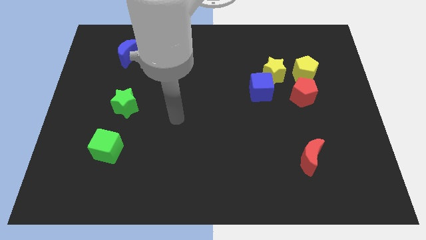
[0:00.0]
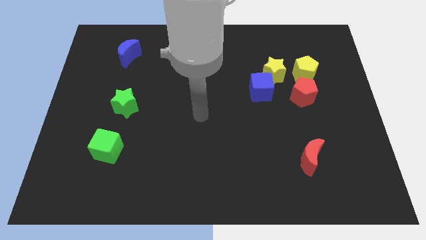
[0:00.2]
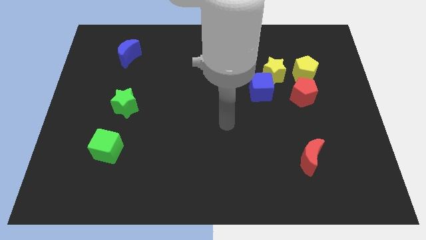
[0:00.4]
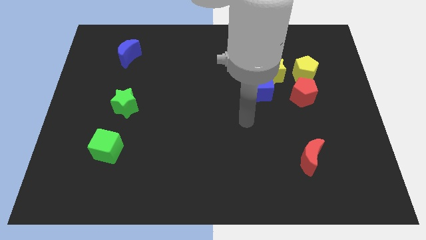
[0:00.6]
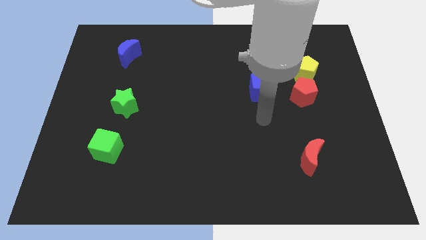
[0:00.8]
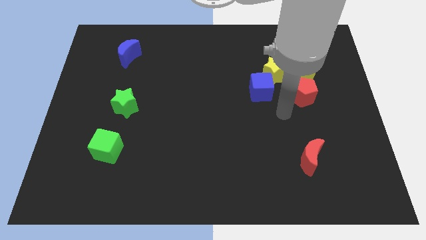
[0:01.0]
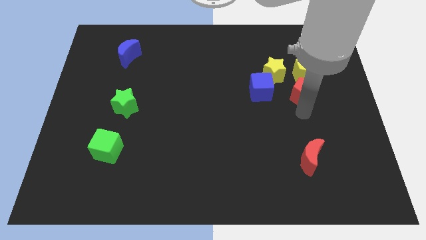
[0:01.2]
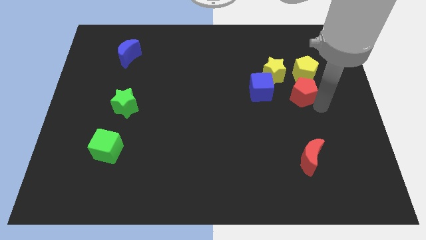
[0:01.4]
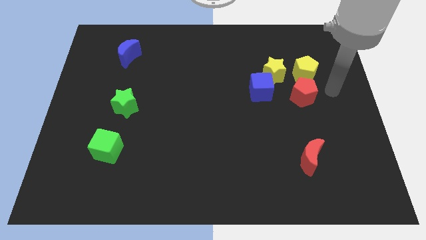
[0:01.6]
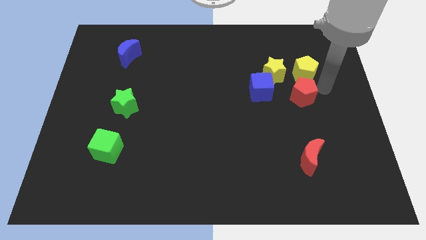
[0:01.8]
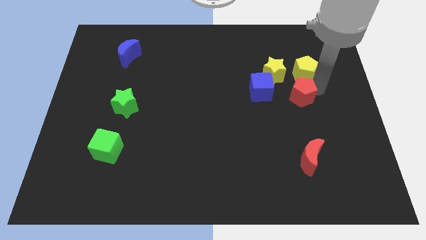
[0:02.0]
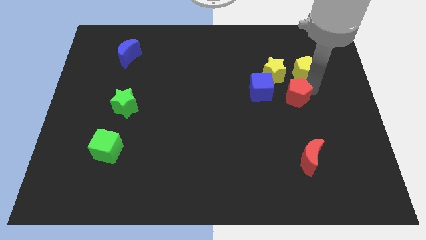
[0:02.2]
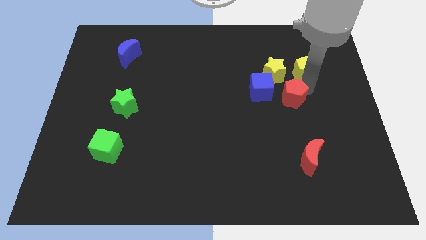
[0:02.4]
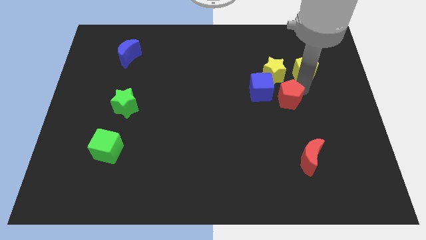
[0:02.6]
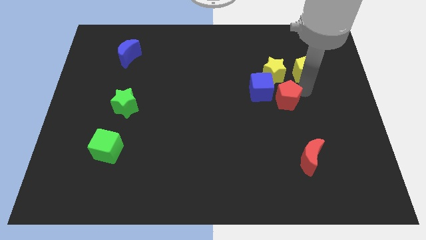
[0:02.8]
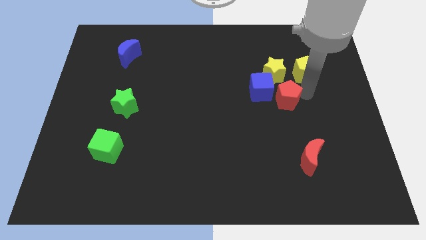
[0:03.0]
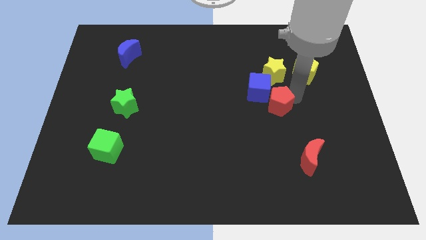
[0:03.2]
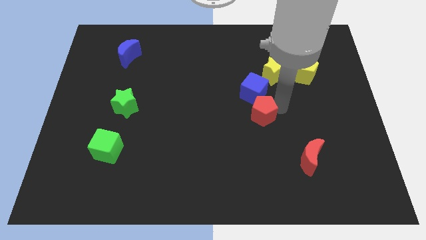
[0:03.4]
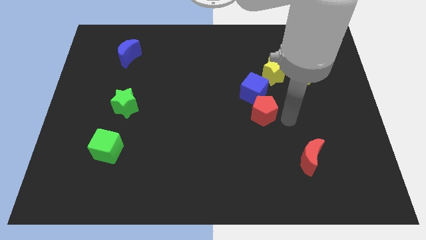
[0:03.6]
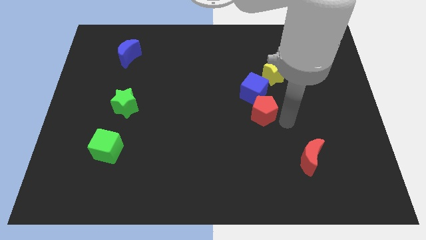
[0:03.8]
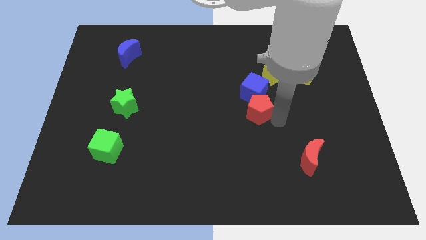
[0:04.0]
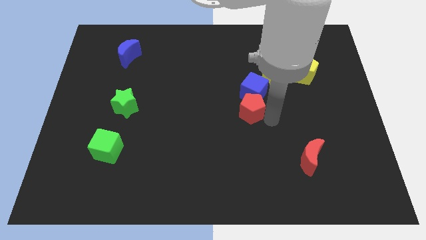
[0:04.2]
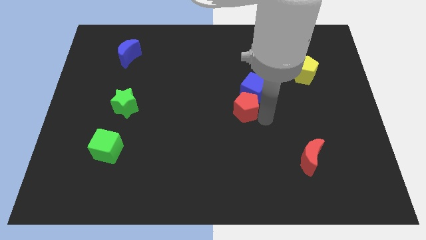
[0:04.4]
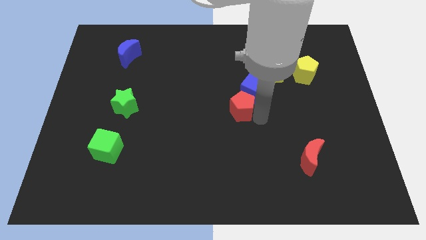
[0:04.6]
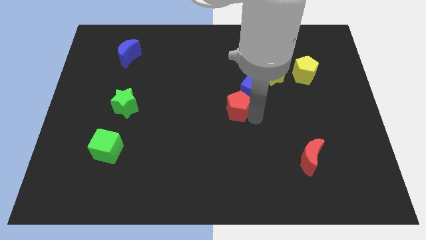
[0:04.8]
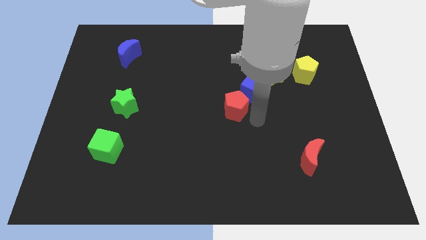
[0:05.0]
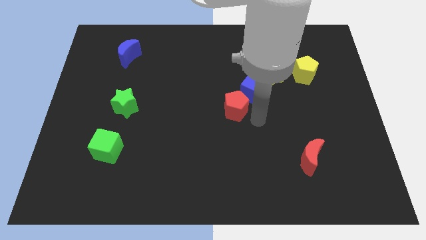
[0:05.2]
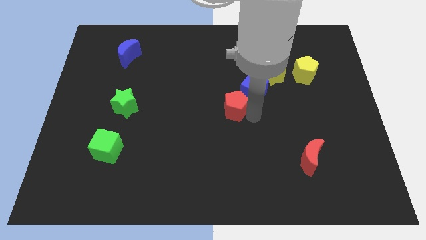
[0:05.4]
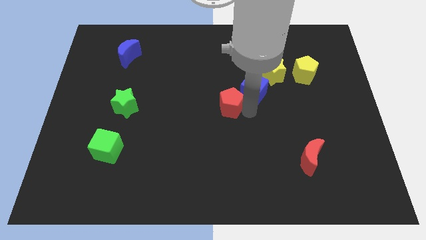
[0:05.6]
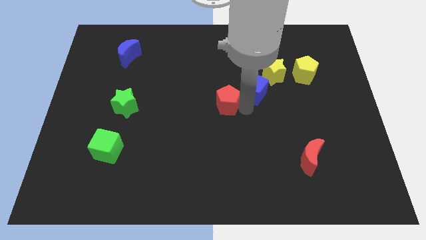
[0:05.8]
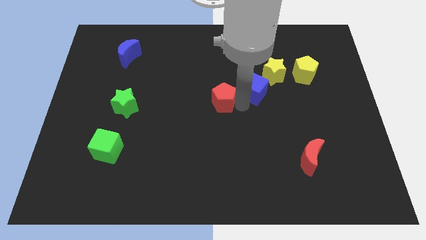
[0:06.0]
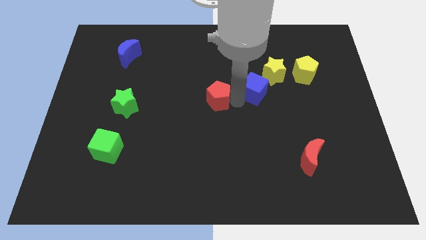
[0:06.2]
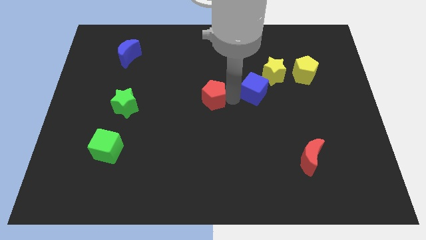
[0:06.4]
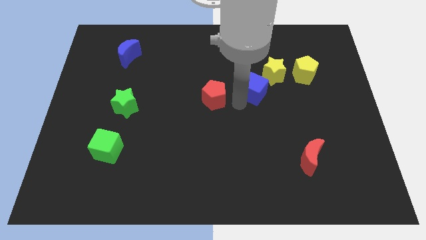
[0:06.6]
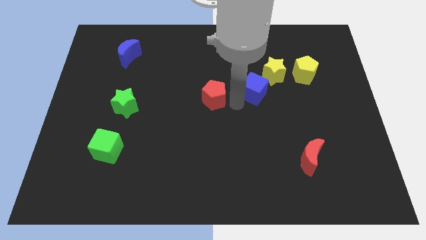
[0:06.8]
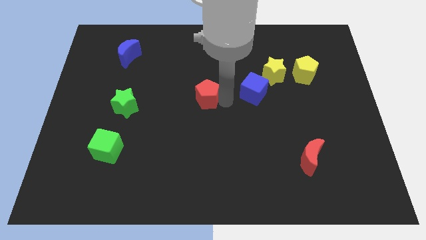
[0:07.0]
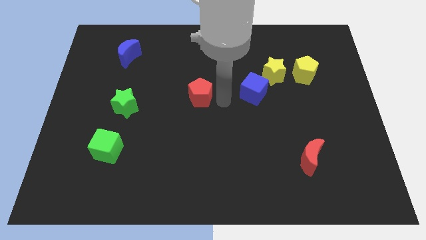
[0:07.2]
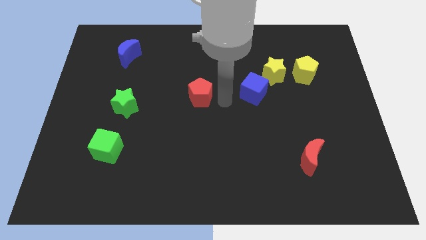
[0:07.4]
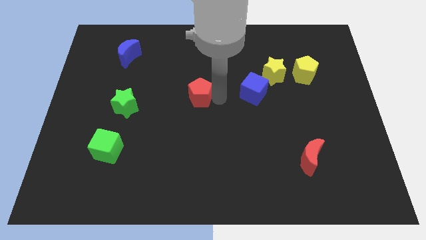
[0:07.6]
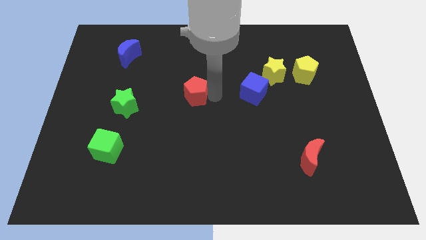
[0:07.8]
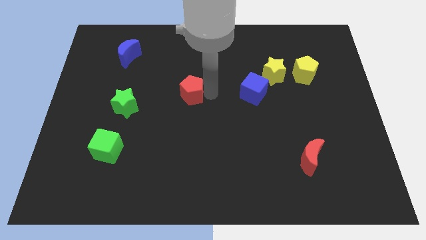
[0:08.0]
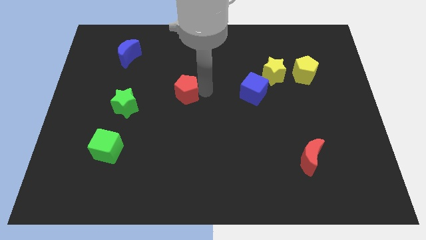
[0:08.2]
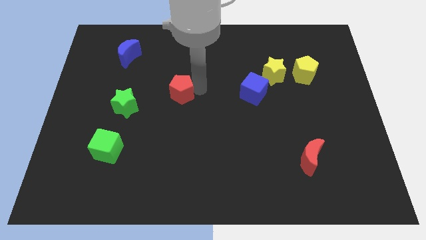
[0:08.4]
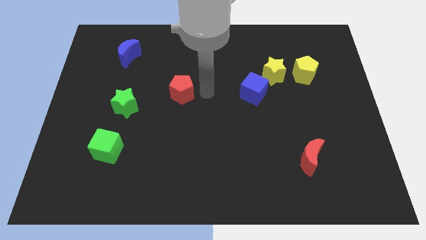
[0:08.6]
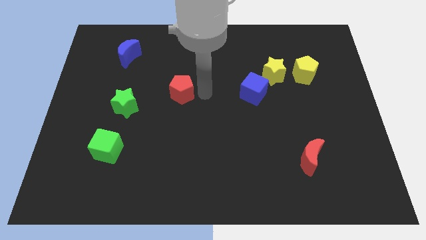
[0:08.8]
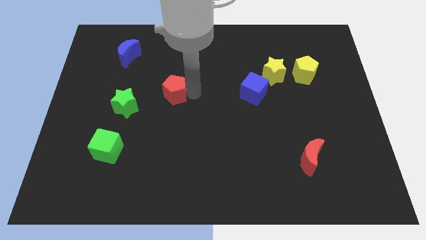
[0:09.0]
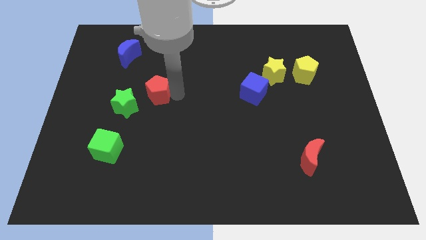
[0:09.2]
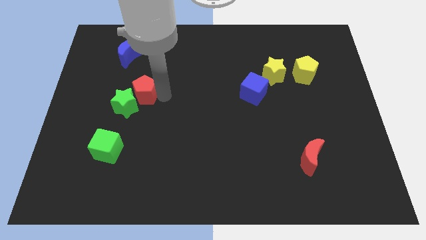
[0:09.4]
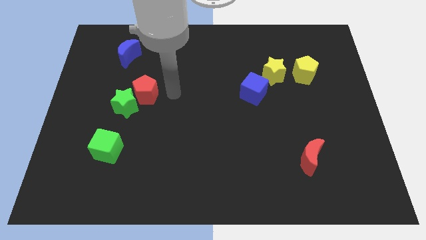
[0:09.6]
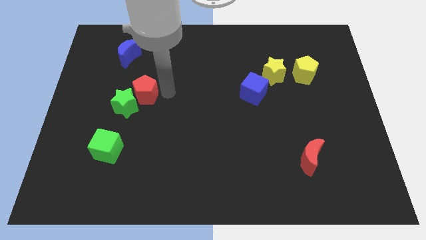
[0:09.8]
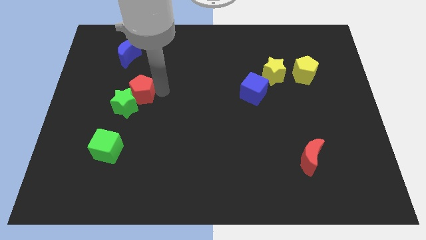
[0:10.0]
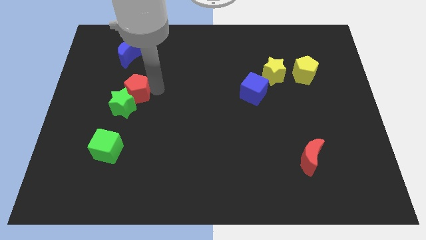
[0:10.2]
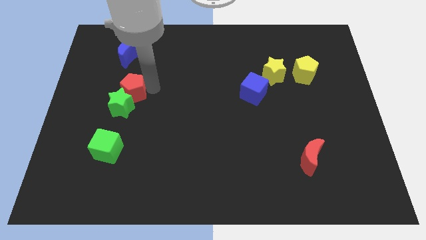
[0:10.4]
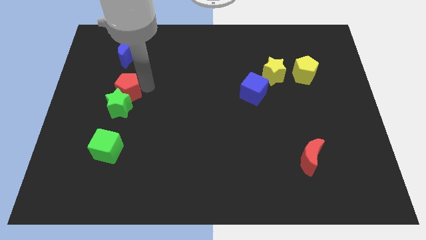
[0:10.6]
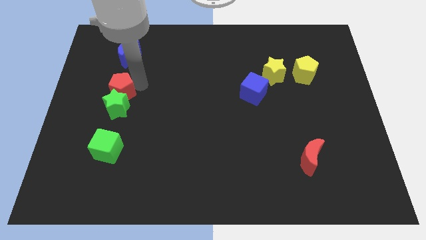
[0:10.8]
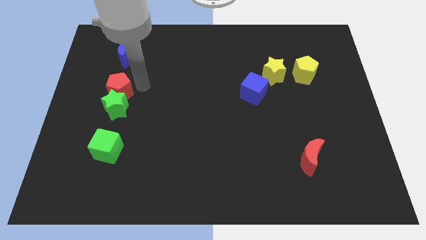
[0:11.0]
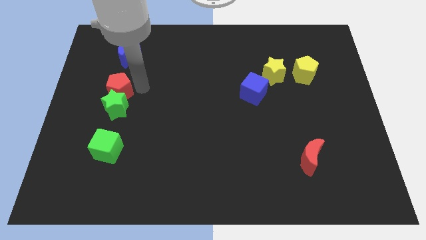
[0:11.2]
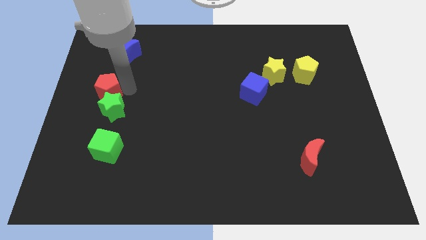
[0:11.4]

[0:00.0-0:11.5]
move the red pentagon to the left side

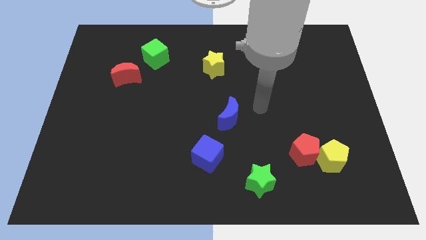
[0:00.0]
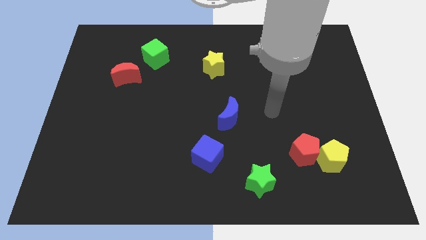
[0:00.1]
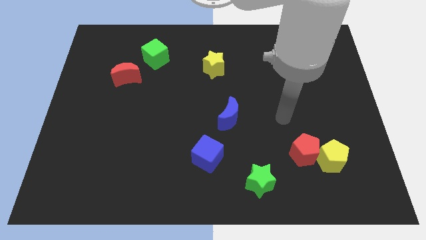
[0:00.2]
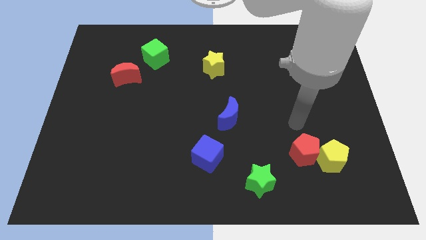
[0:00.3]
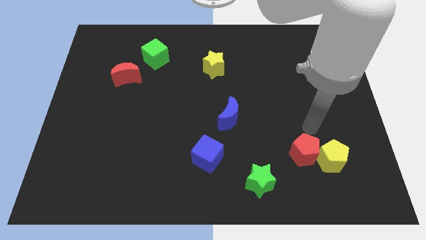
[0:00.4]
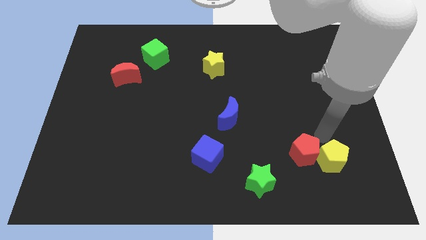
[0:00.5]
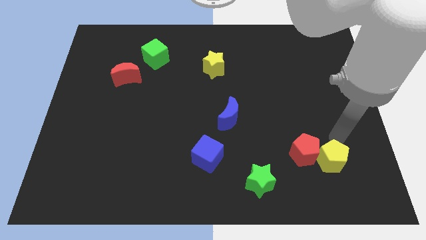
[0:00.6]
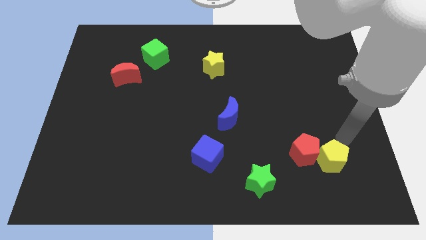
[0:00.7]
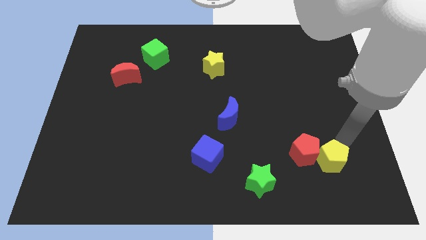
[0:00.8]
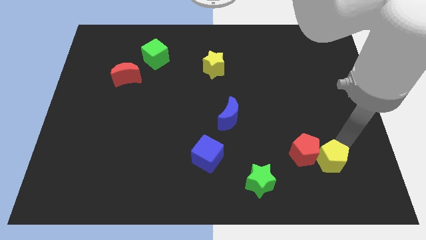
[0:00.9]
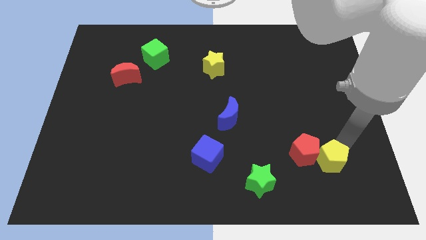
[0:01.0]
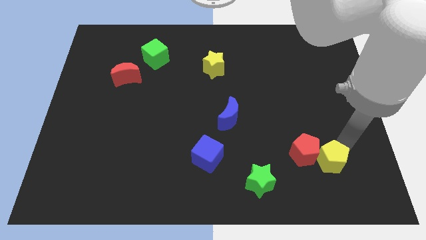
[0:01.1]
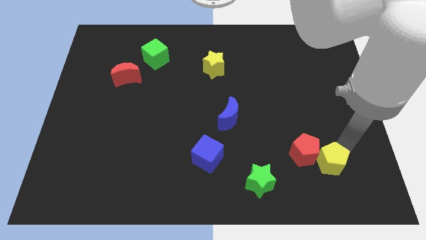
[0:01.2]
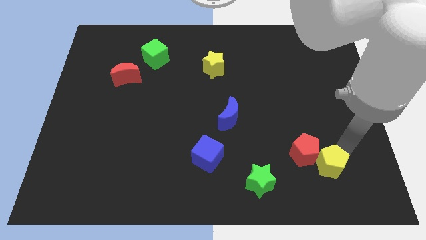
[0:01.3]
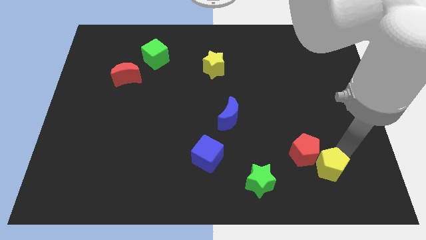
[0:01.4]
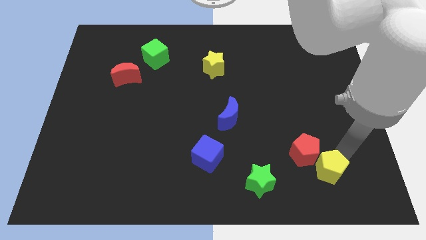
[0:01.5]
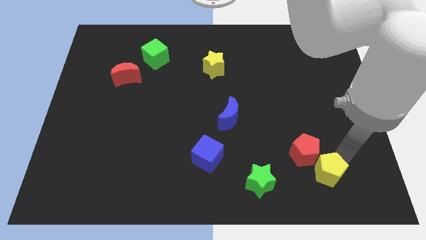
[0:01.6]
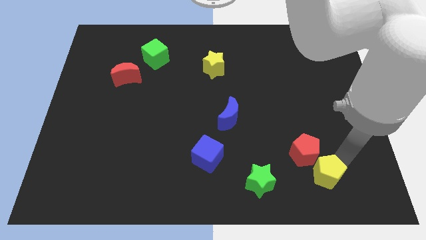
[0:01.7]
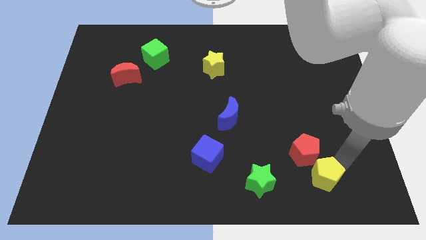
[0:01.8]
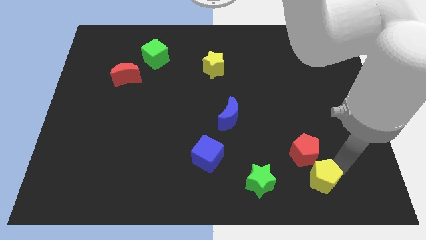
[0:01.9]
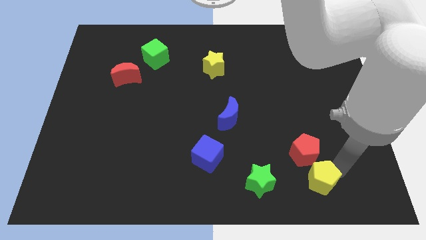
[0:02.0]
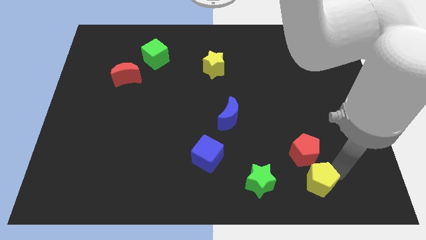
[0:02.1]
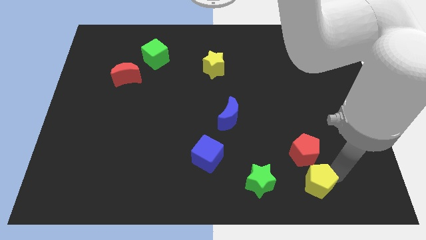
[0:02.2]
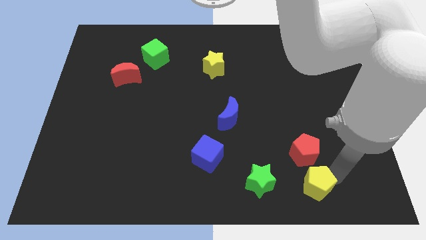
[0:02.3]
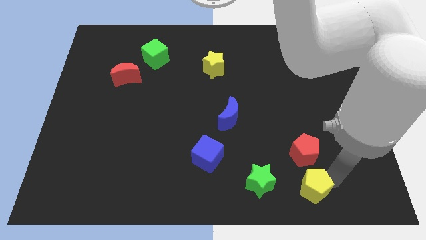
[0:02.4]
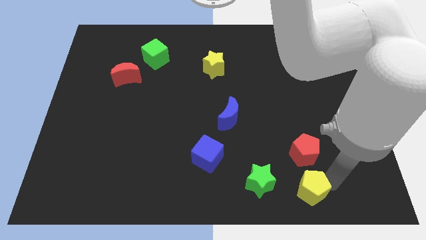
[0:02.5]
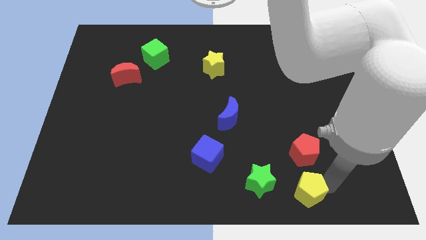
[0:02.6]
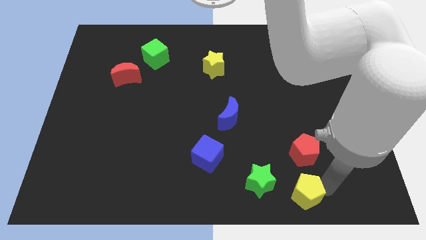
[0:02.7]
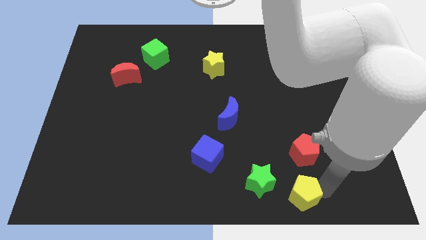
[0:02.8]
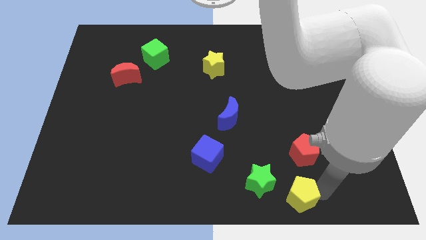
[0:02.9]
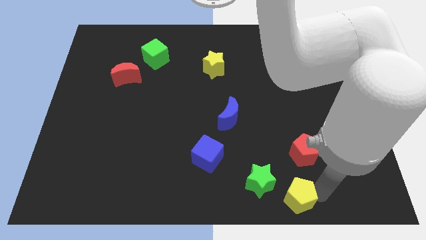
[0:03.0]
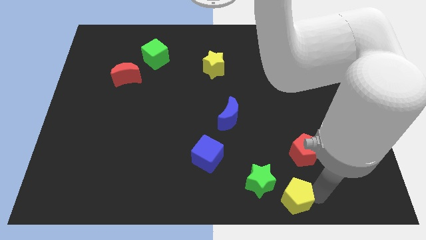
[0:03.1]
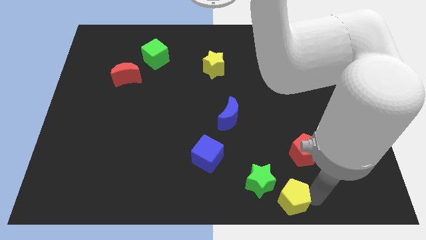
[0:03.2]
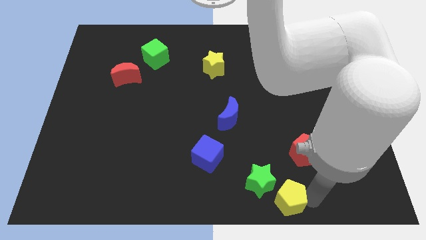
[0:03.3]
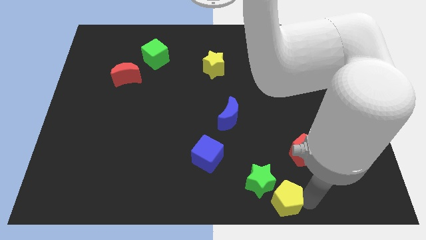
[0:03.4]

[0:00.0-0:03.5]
move the yellow pentagon to the bottom
